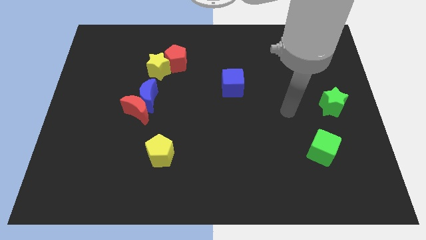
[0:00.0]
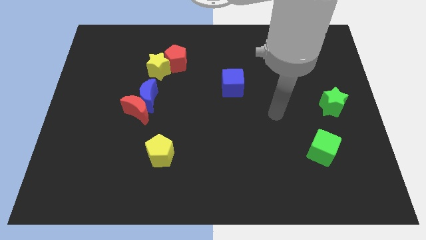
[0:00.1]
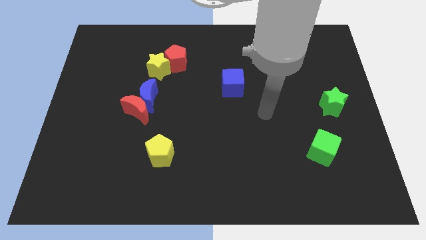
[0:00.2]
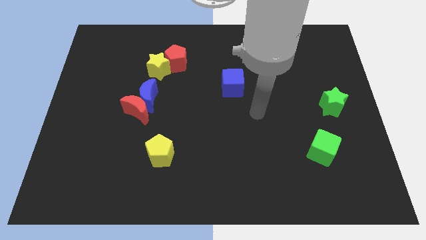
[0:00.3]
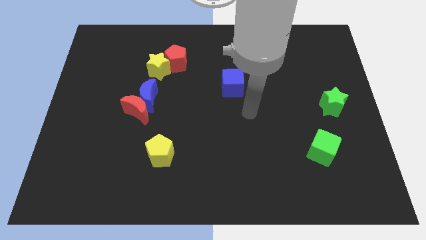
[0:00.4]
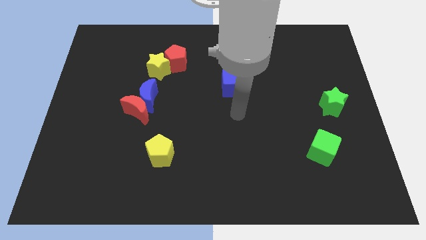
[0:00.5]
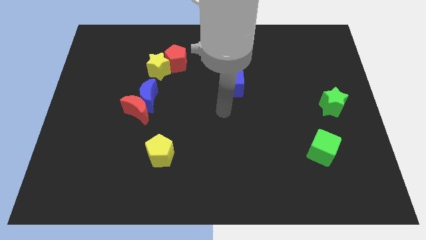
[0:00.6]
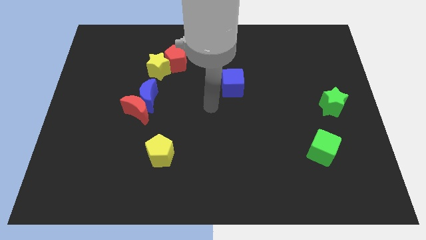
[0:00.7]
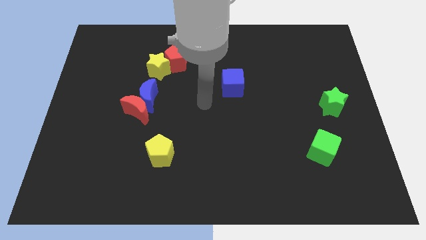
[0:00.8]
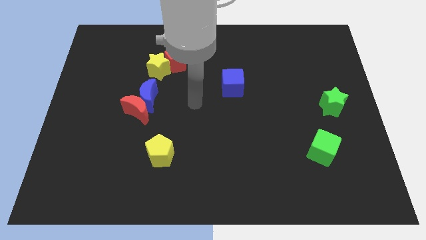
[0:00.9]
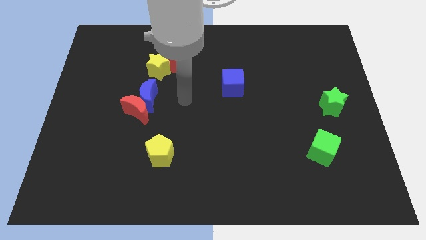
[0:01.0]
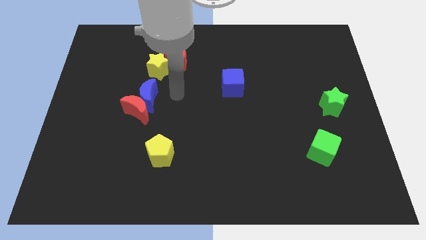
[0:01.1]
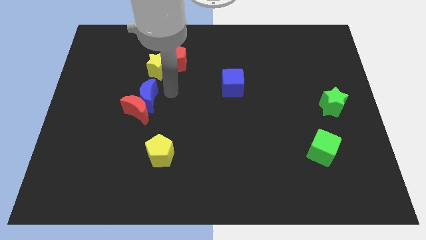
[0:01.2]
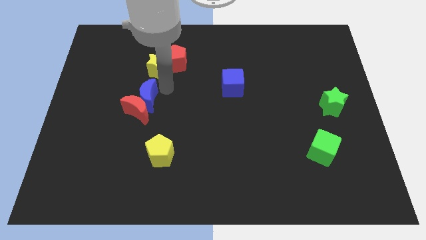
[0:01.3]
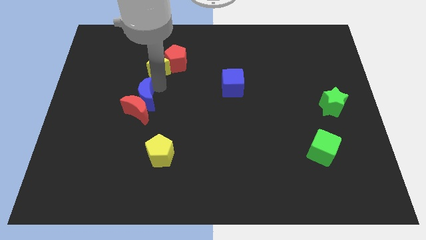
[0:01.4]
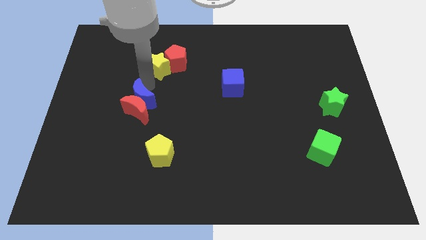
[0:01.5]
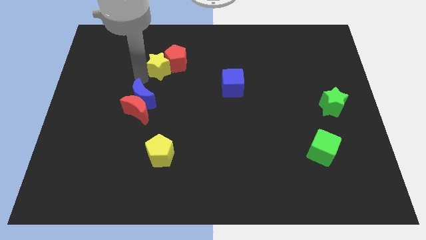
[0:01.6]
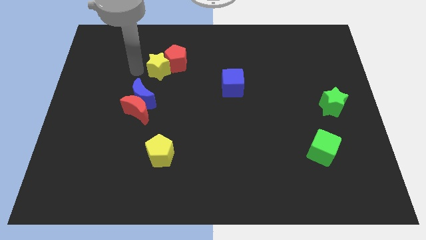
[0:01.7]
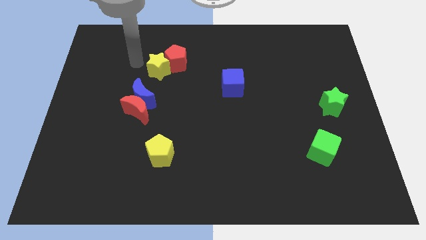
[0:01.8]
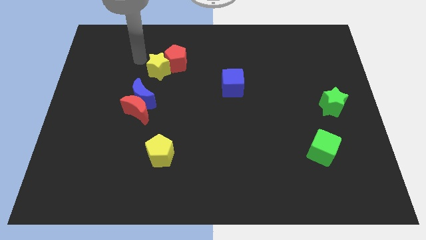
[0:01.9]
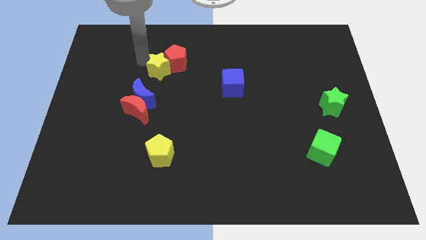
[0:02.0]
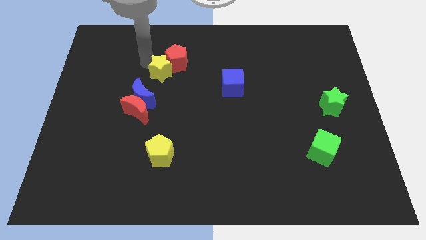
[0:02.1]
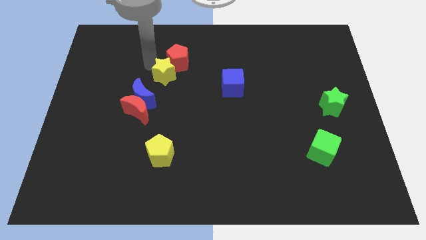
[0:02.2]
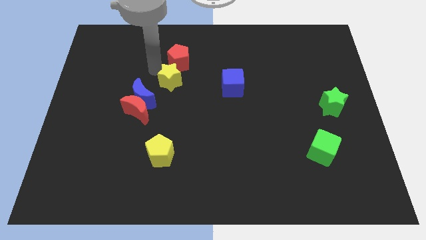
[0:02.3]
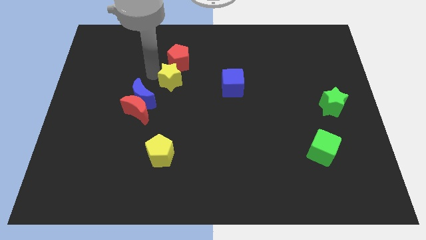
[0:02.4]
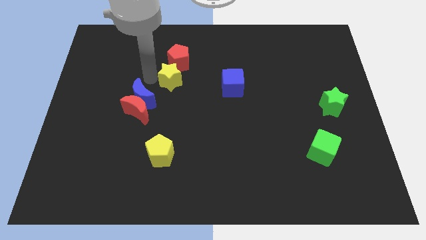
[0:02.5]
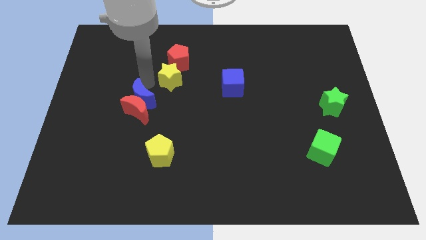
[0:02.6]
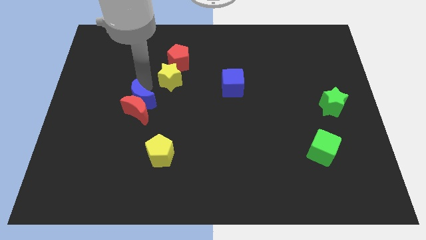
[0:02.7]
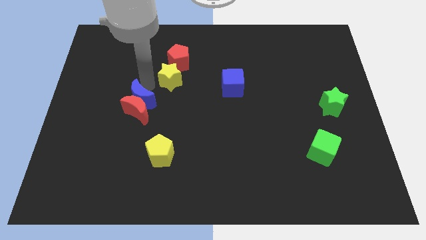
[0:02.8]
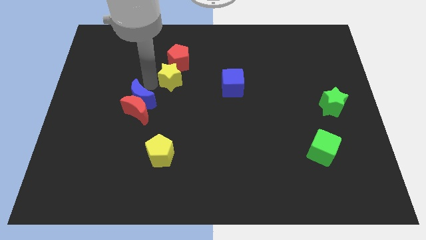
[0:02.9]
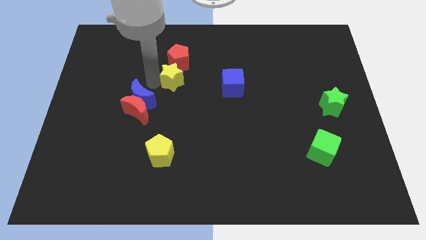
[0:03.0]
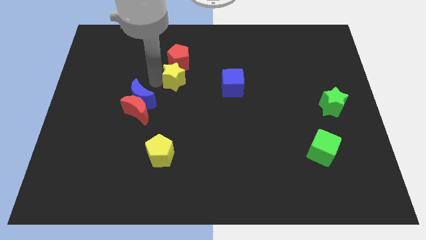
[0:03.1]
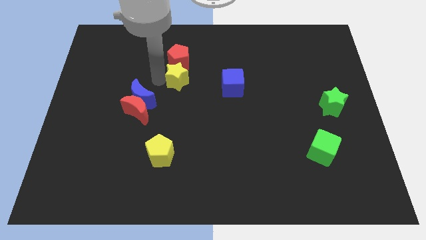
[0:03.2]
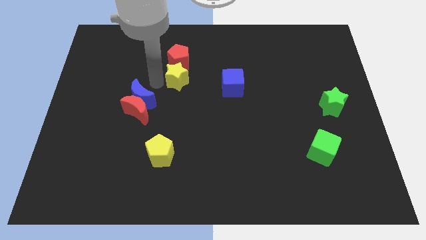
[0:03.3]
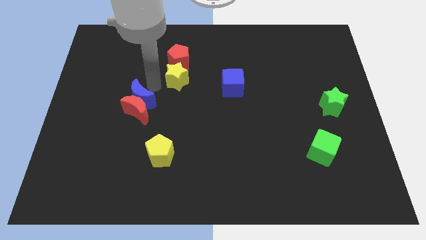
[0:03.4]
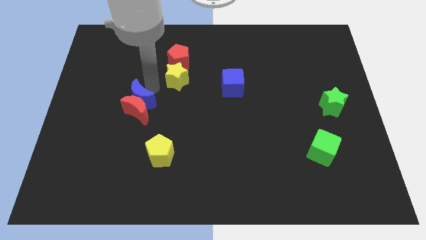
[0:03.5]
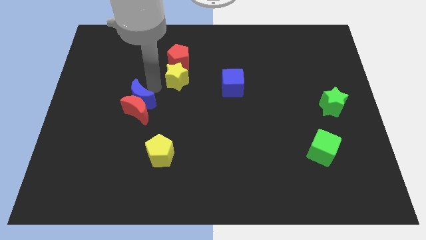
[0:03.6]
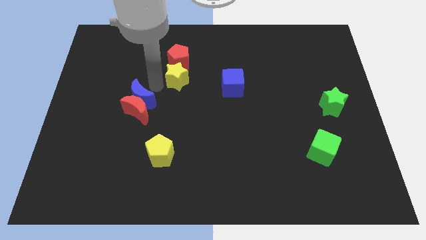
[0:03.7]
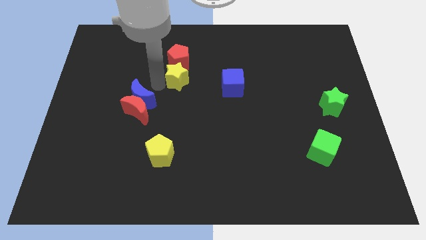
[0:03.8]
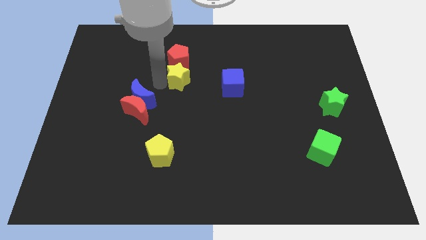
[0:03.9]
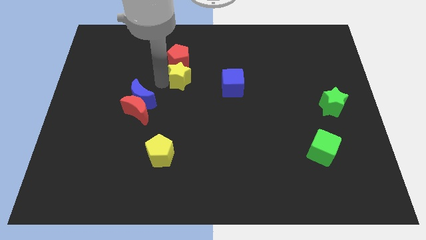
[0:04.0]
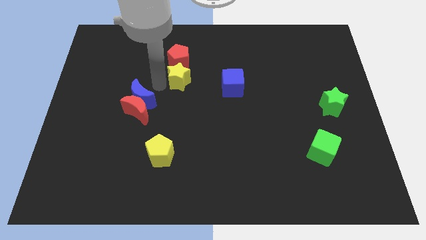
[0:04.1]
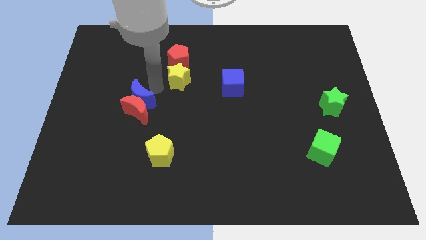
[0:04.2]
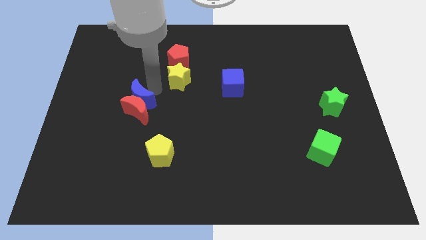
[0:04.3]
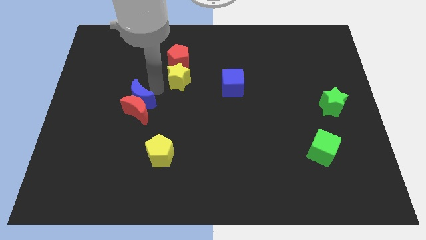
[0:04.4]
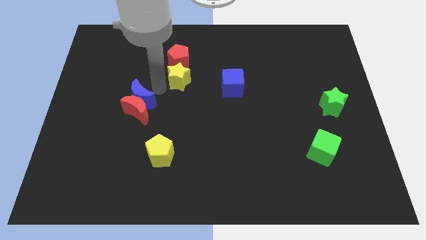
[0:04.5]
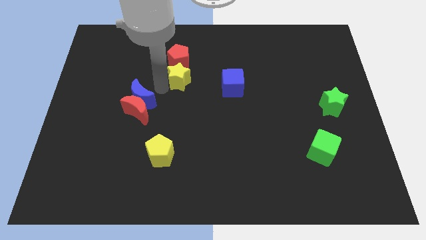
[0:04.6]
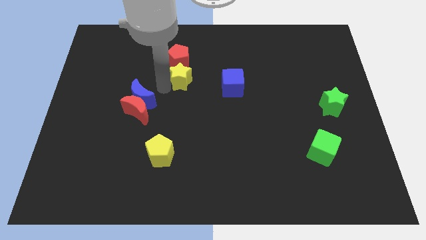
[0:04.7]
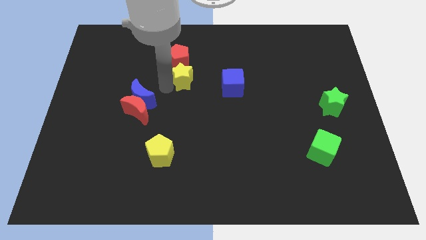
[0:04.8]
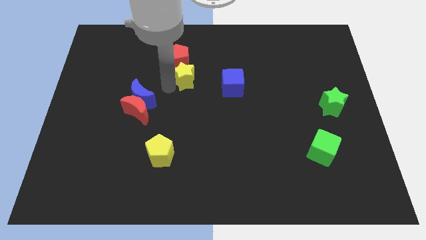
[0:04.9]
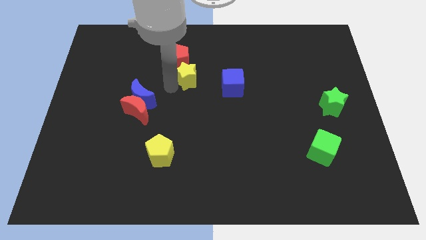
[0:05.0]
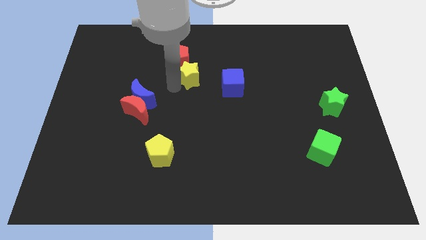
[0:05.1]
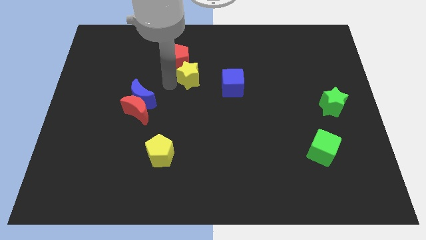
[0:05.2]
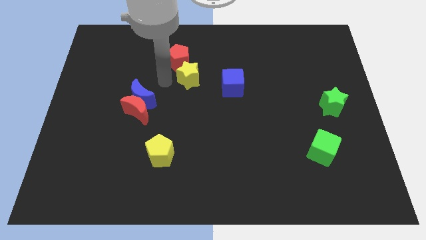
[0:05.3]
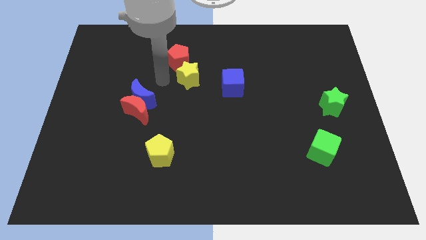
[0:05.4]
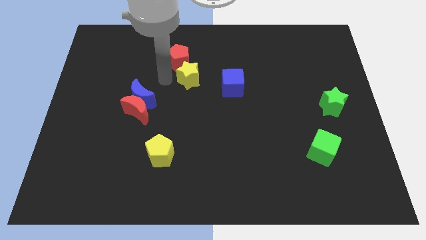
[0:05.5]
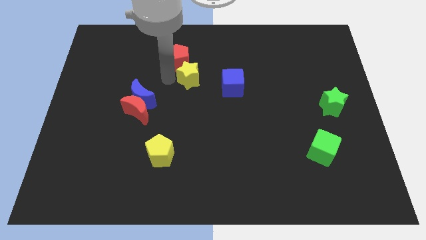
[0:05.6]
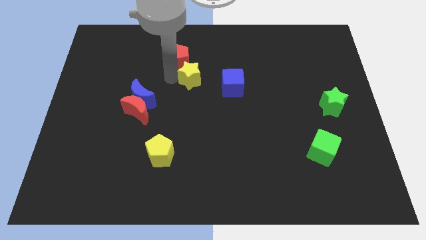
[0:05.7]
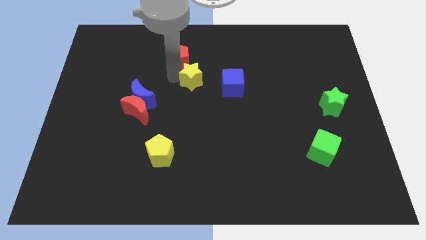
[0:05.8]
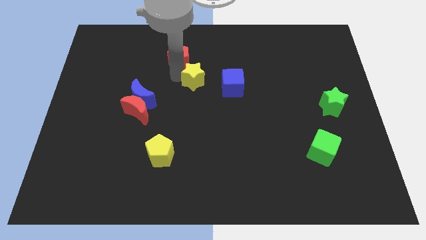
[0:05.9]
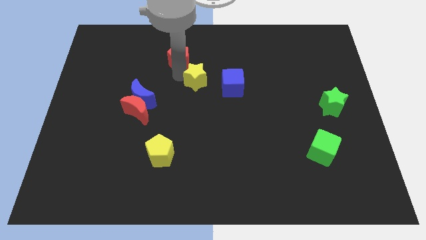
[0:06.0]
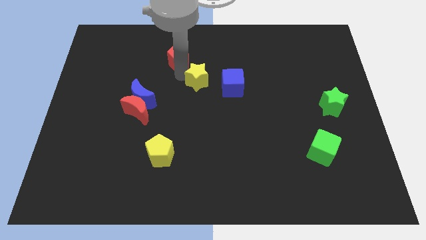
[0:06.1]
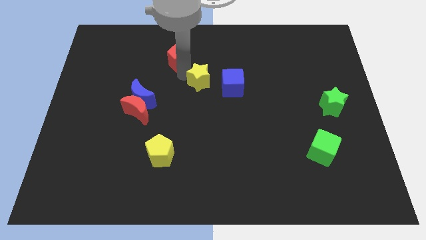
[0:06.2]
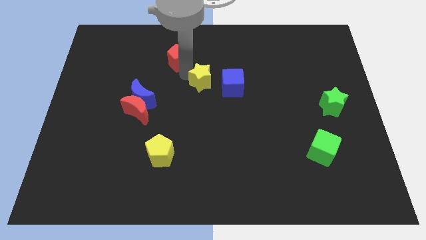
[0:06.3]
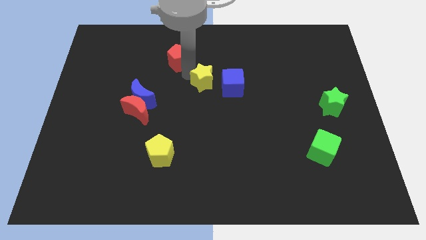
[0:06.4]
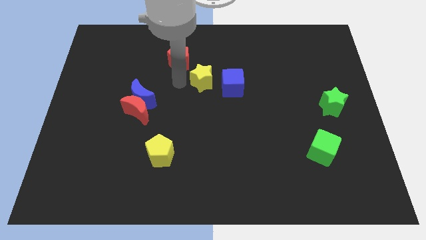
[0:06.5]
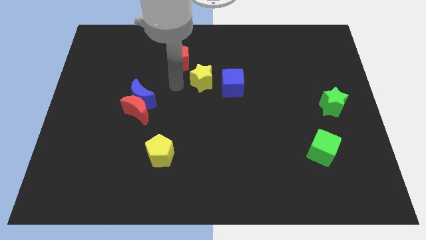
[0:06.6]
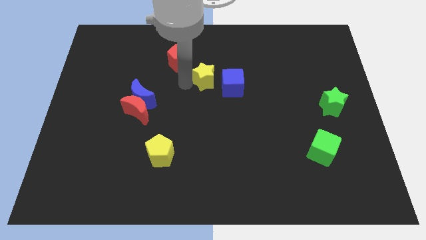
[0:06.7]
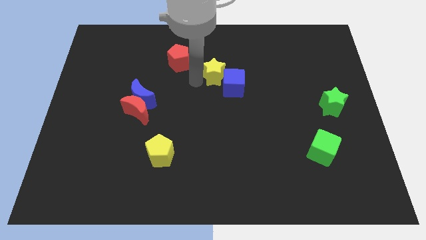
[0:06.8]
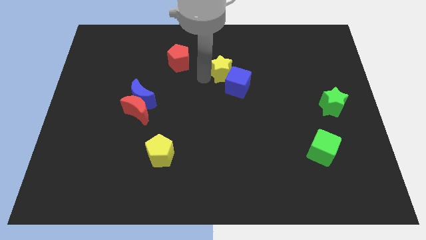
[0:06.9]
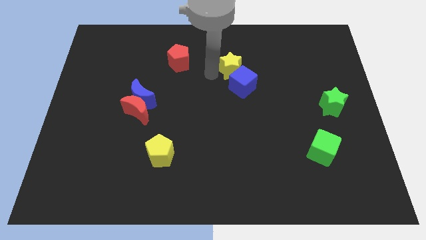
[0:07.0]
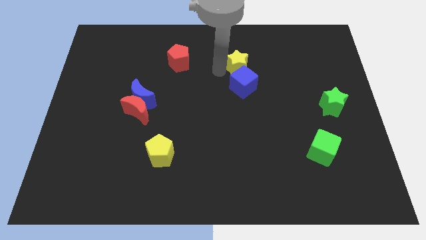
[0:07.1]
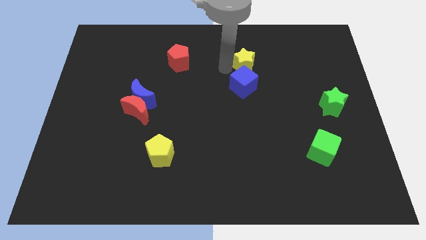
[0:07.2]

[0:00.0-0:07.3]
push the yellow star to the top right of the blue cube
